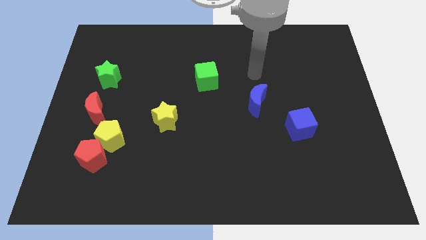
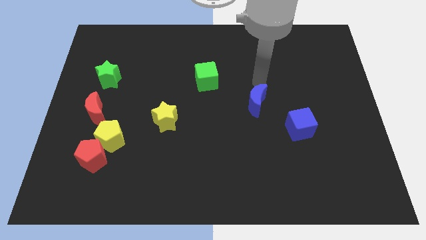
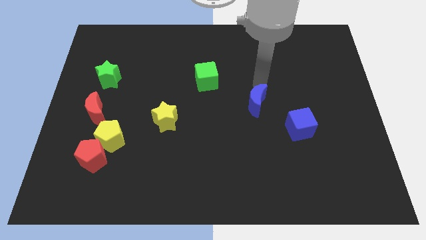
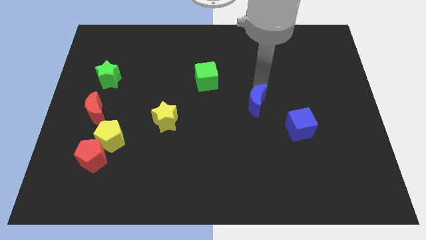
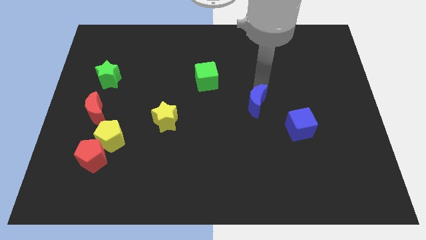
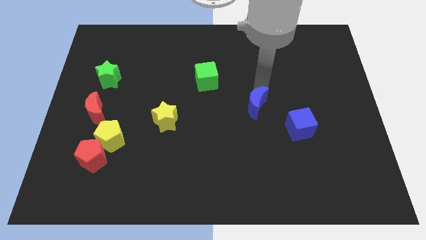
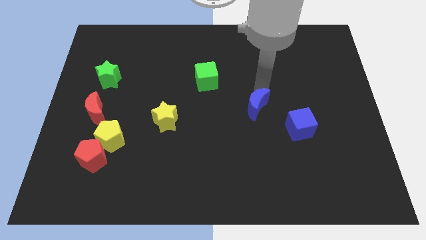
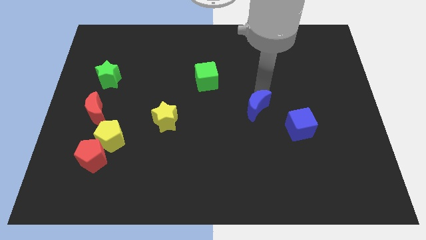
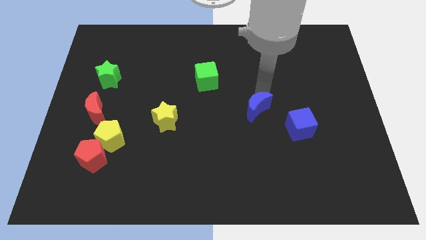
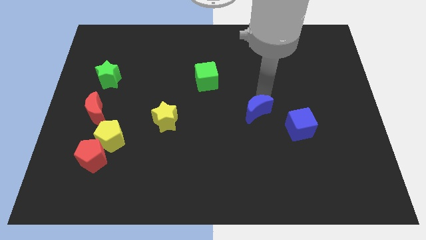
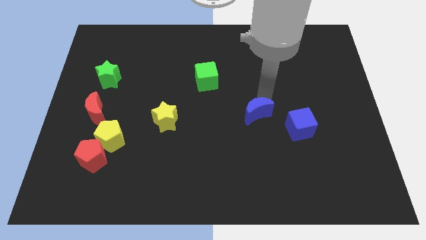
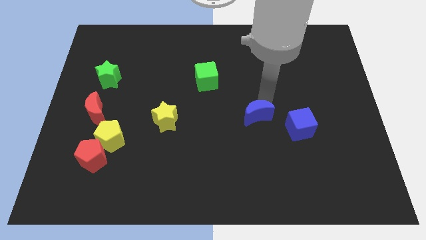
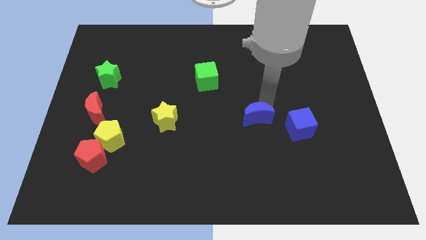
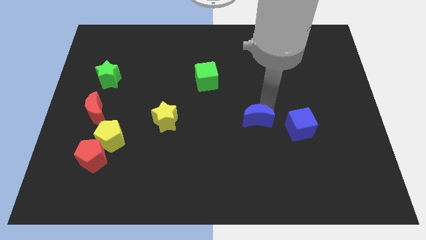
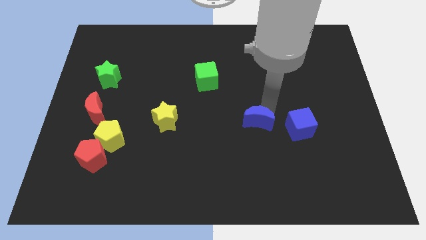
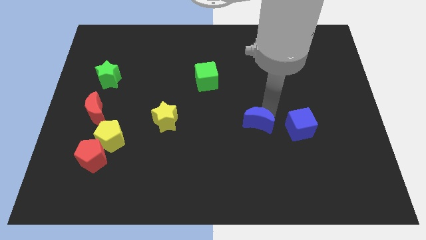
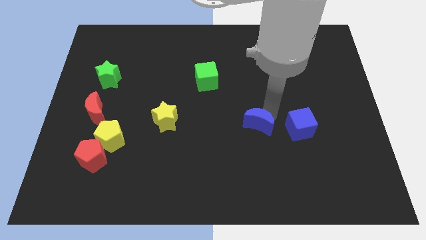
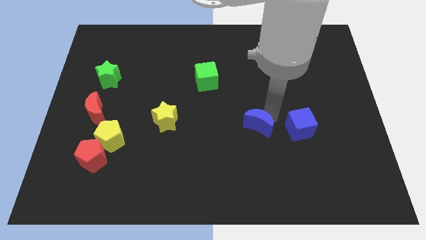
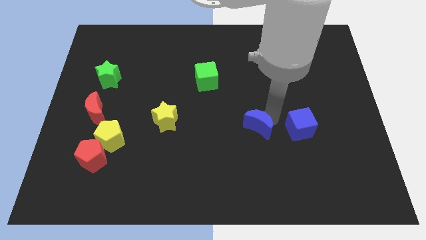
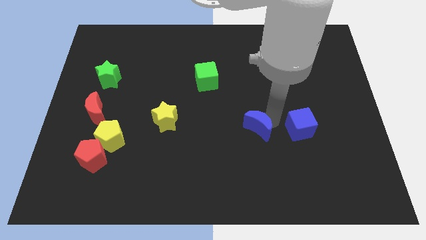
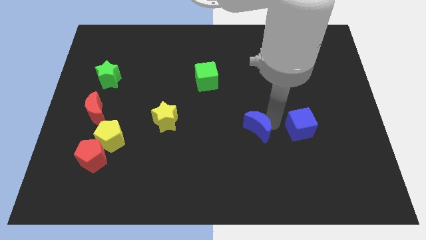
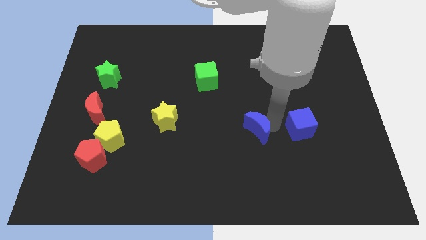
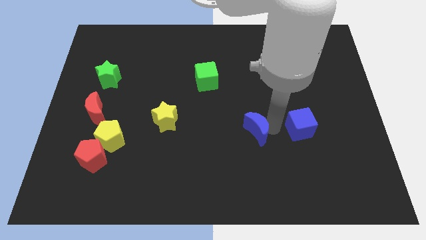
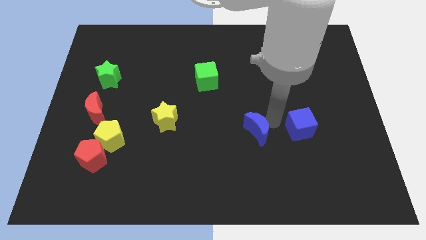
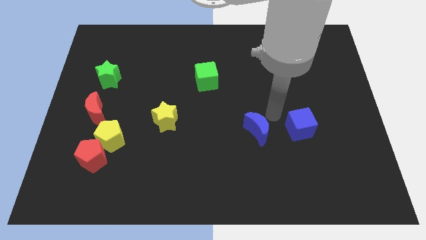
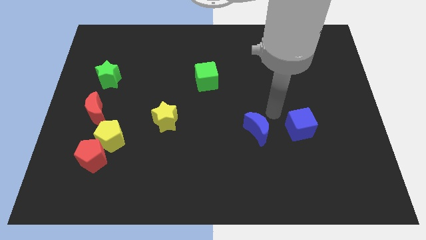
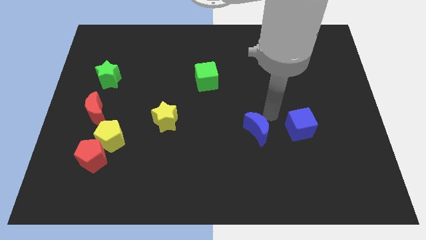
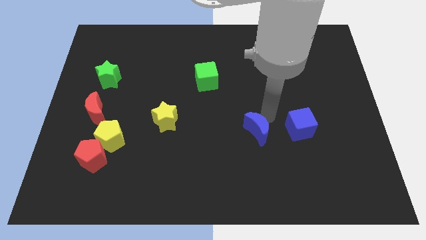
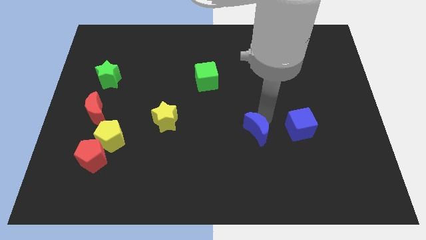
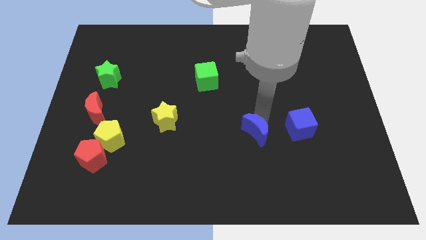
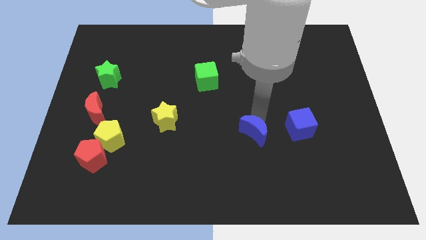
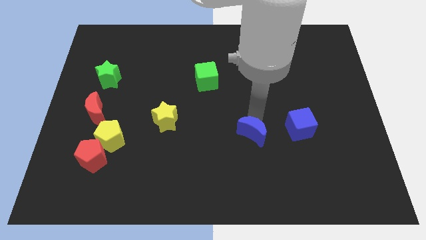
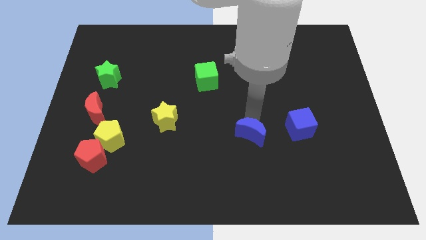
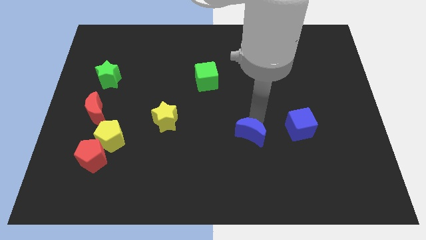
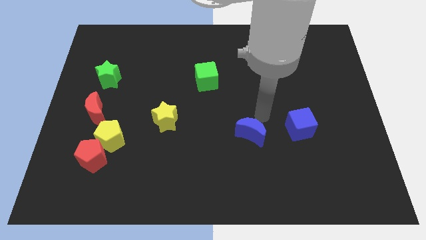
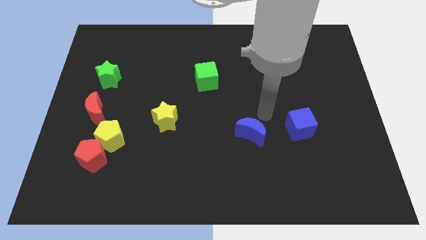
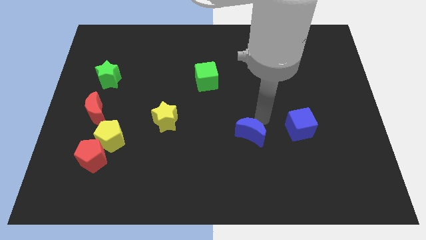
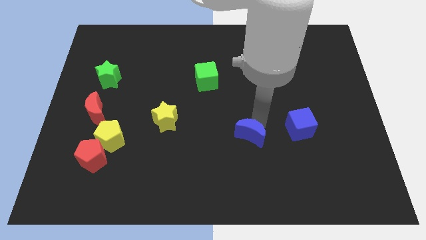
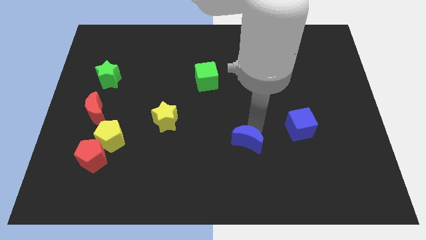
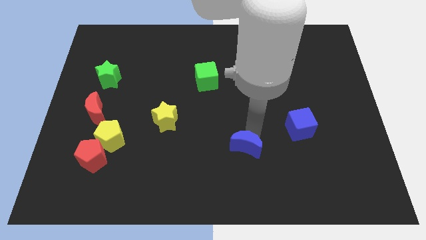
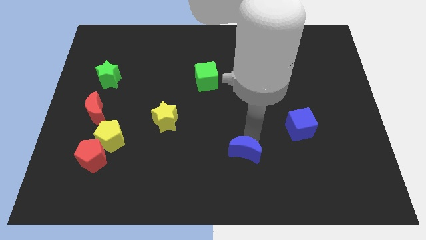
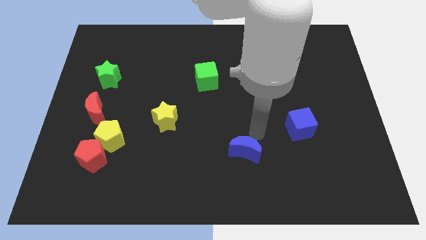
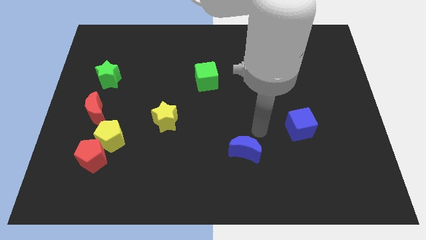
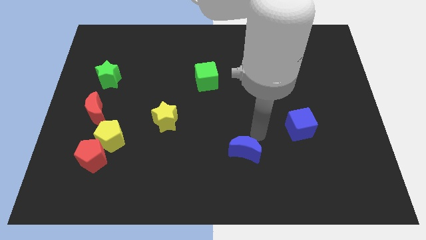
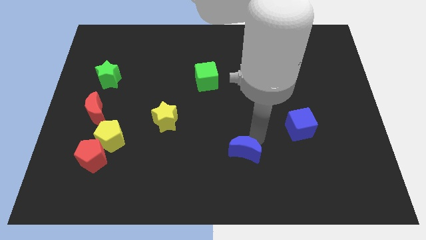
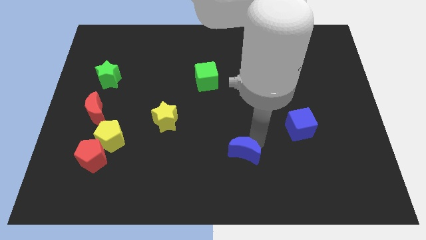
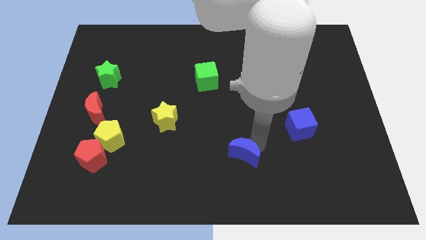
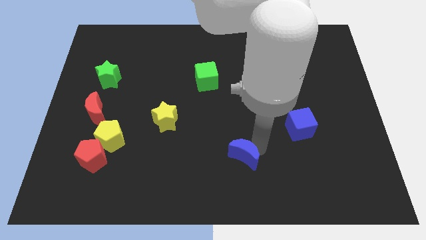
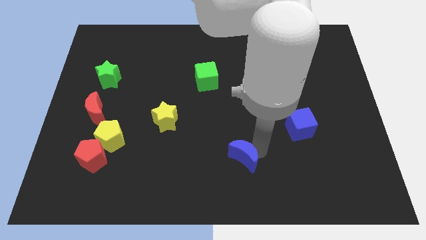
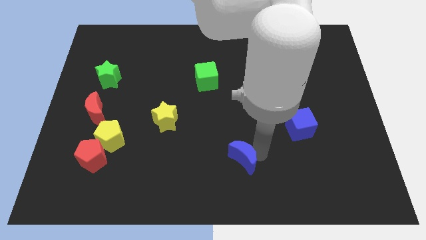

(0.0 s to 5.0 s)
put the blue moon to the bottom side

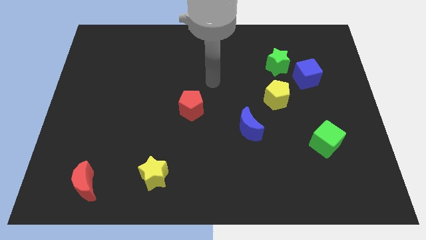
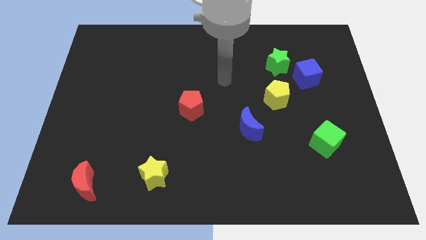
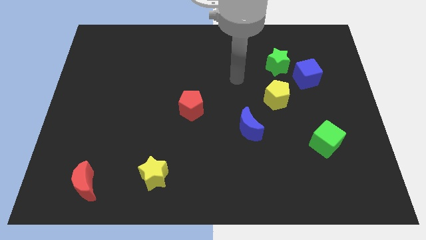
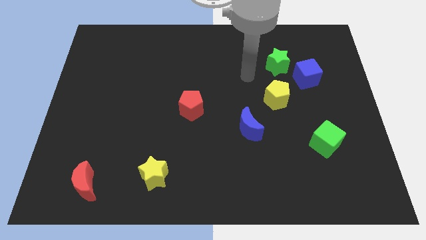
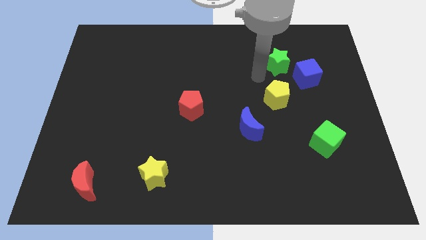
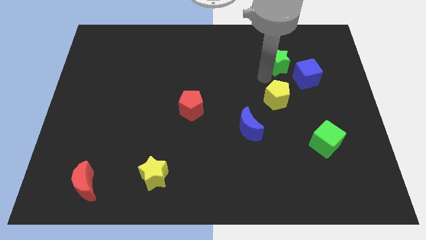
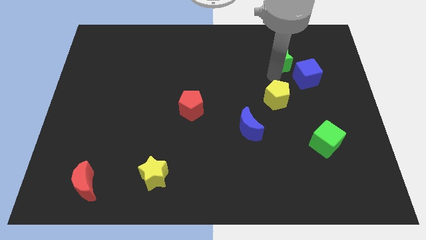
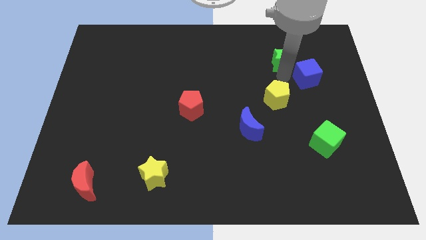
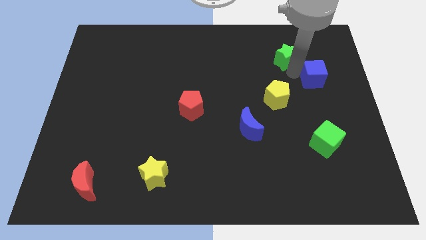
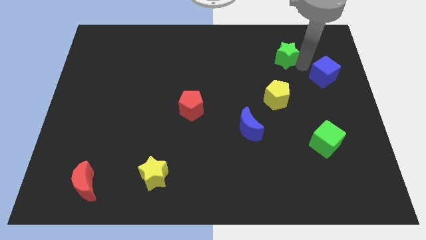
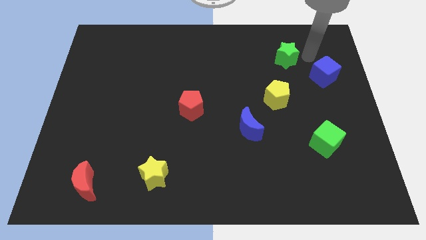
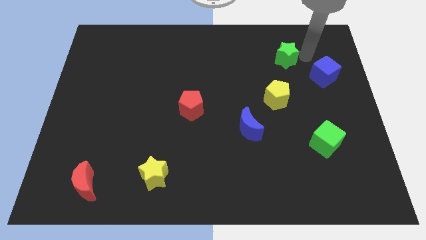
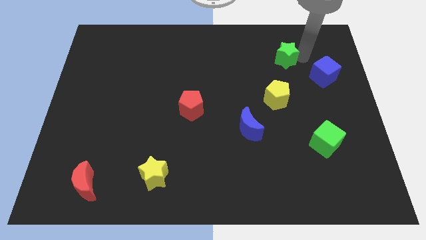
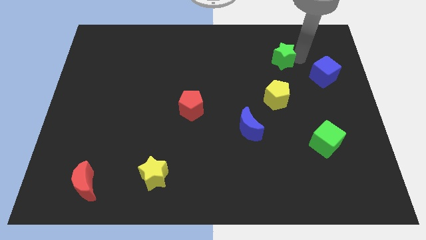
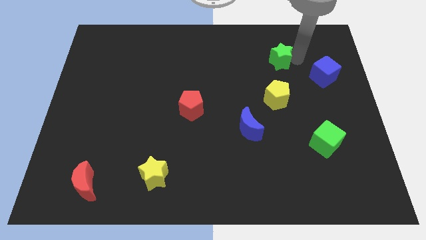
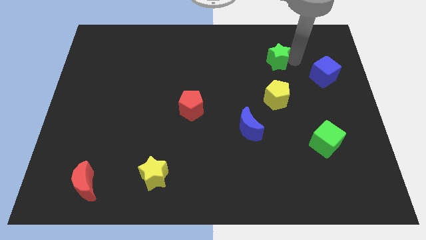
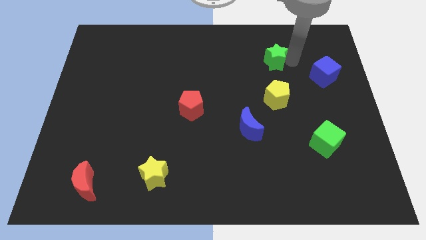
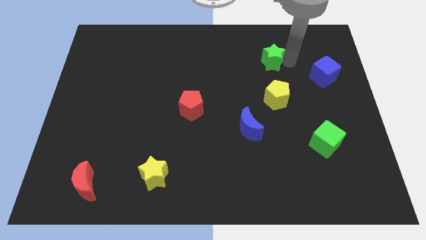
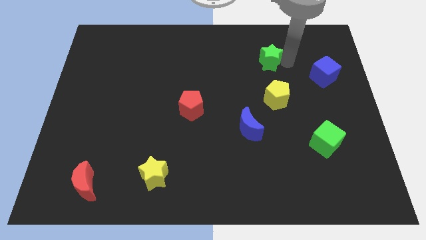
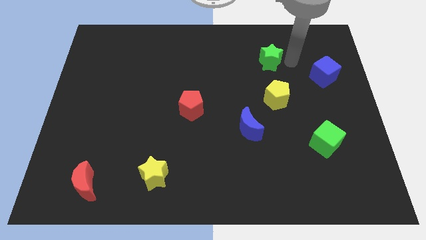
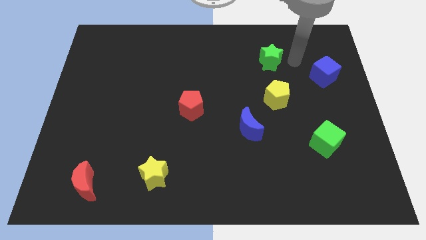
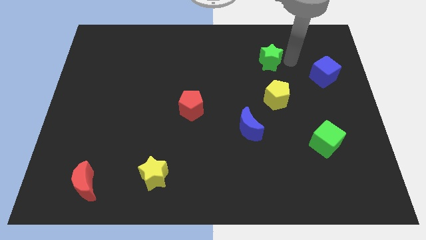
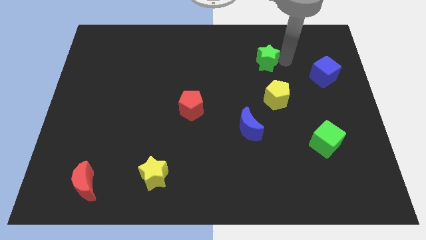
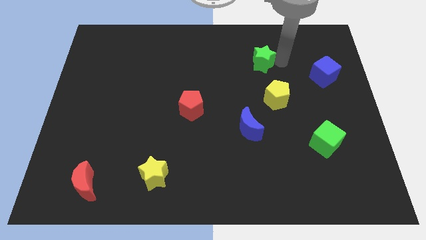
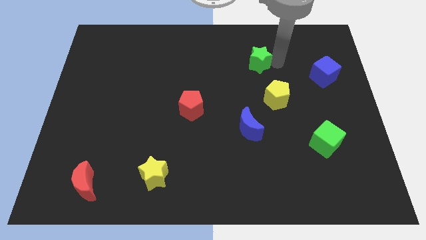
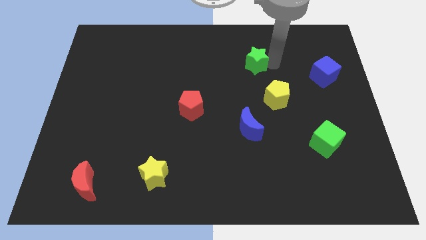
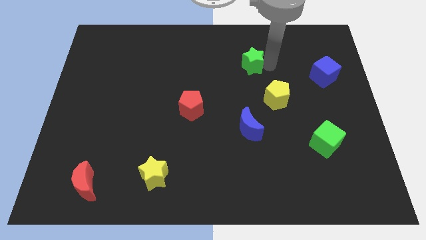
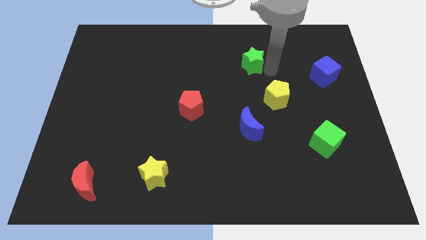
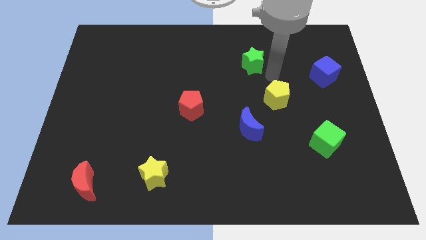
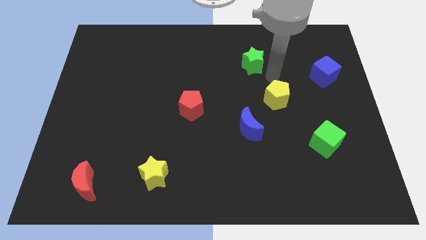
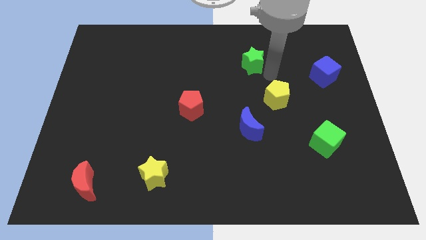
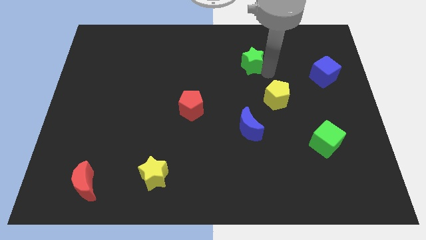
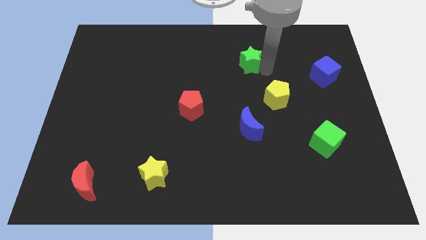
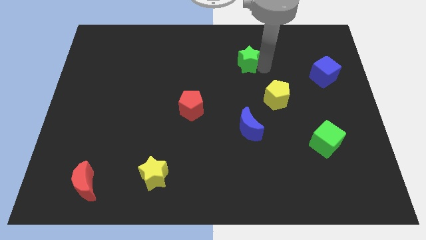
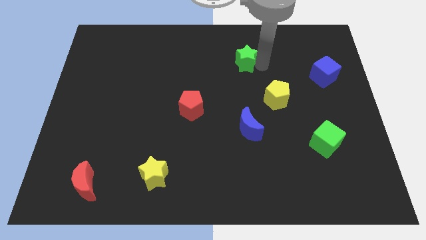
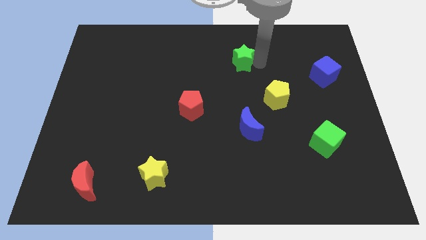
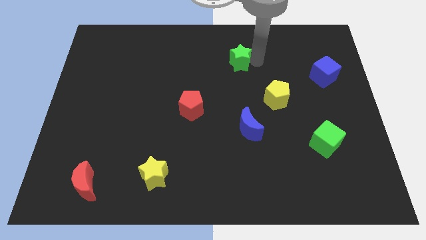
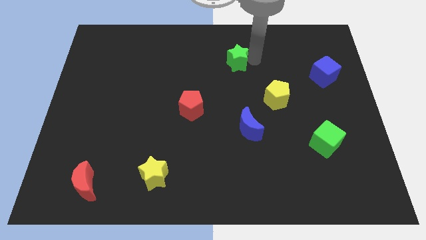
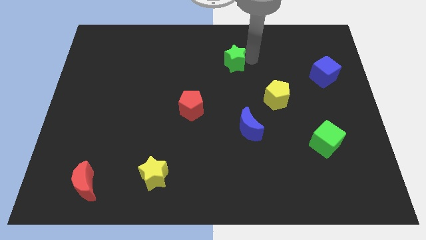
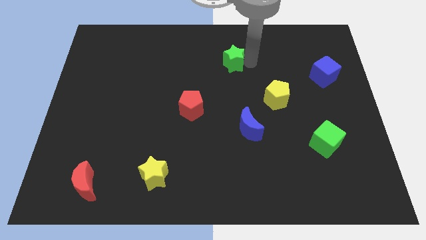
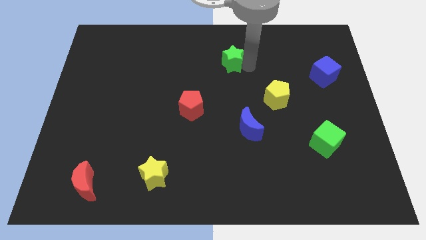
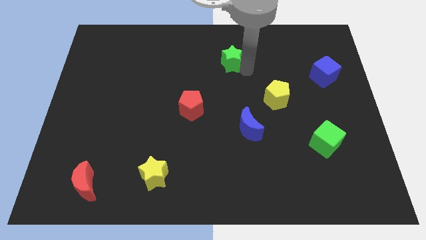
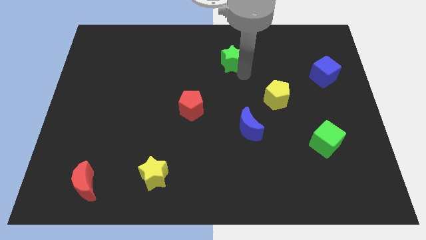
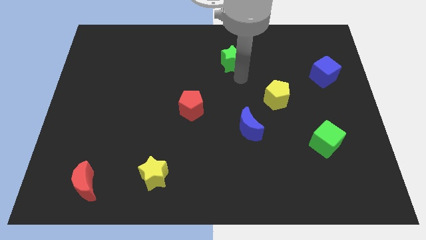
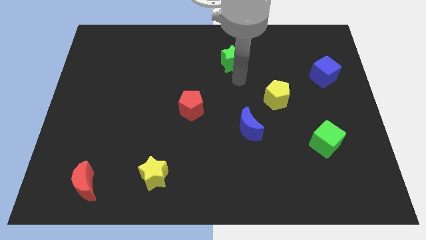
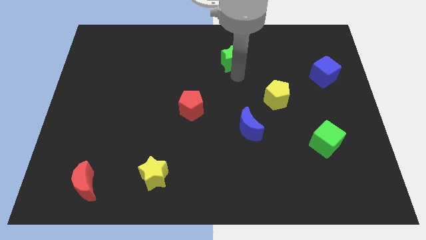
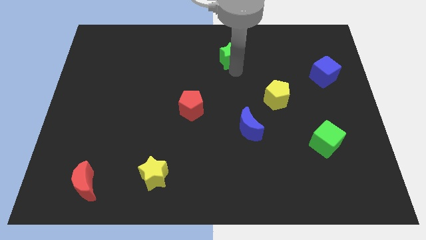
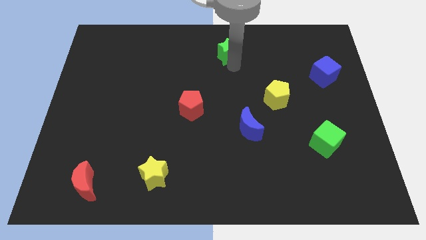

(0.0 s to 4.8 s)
put the green star to the top side
